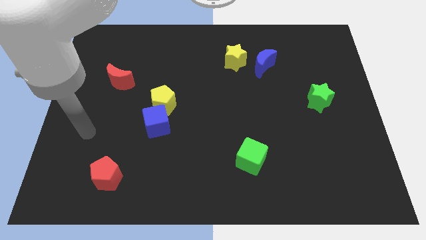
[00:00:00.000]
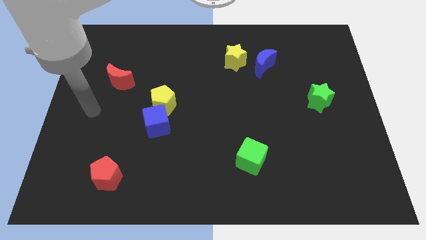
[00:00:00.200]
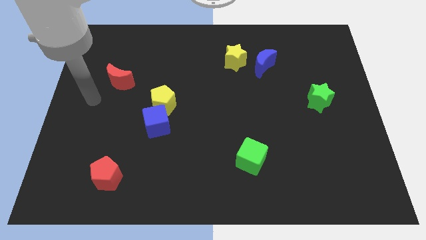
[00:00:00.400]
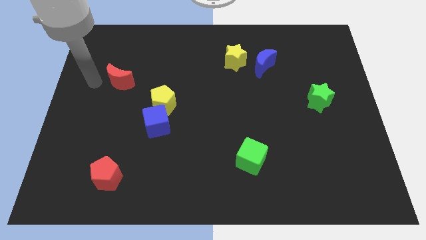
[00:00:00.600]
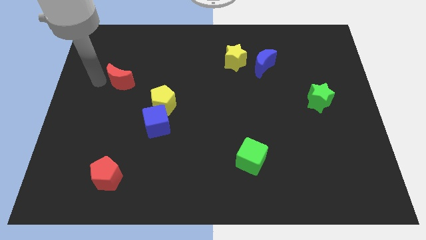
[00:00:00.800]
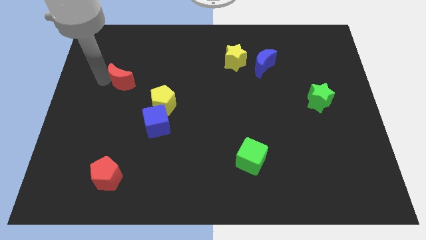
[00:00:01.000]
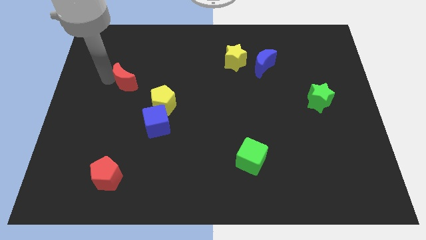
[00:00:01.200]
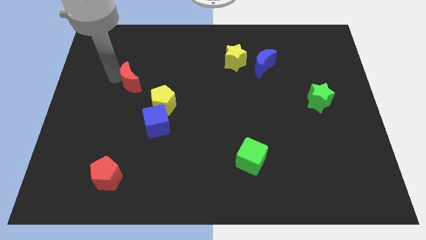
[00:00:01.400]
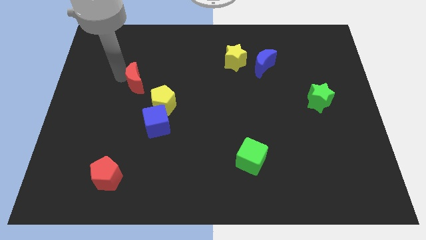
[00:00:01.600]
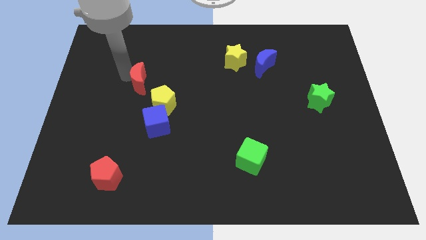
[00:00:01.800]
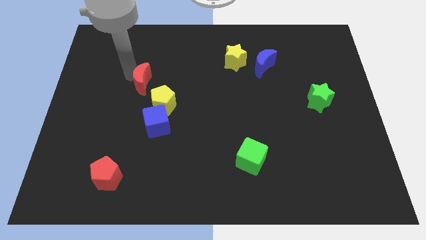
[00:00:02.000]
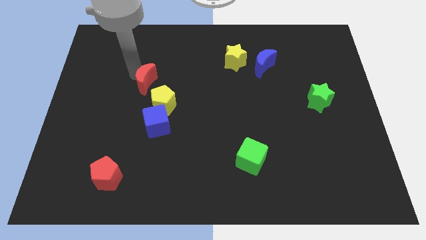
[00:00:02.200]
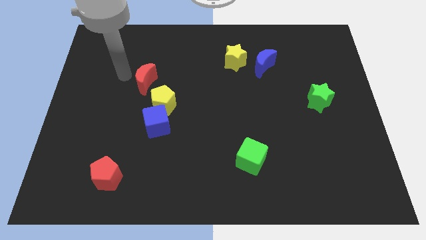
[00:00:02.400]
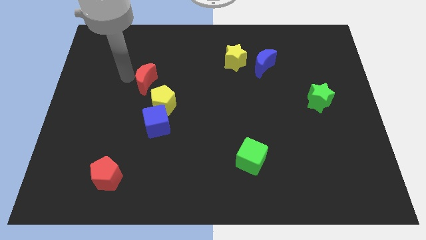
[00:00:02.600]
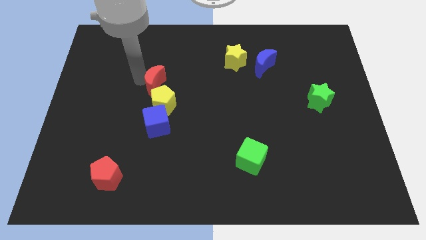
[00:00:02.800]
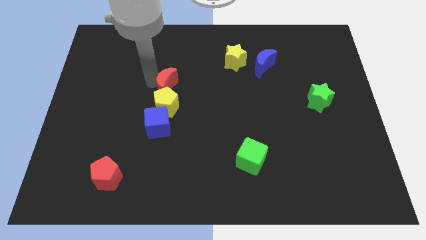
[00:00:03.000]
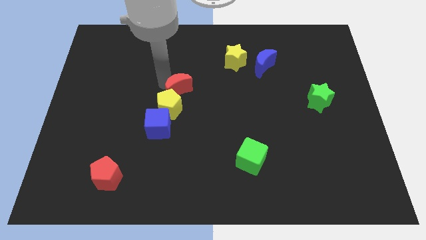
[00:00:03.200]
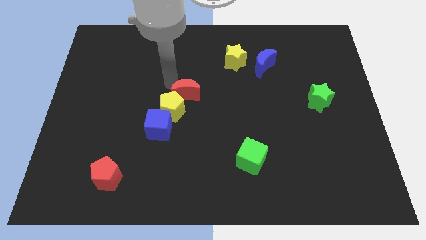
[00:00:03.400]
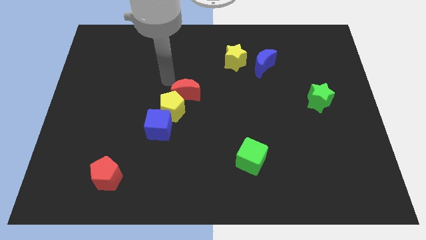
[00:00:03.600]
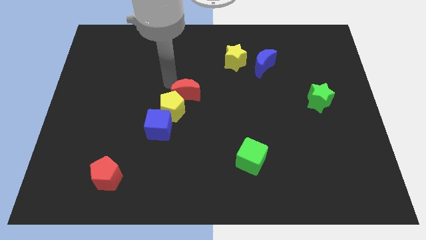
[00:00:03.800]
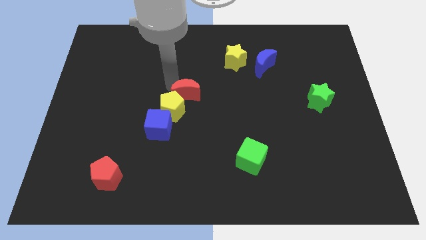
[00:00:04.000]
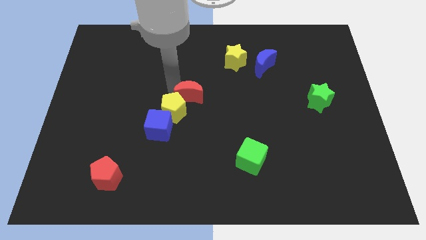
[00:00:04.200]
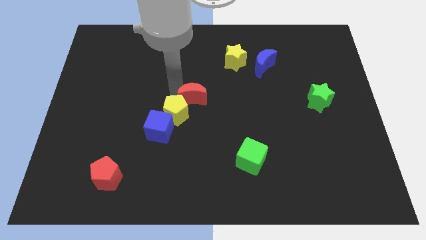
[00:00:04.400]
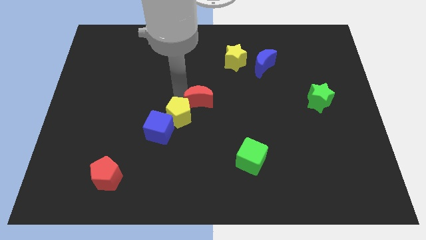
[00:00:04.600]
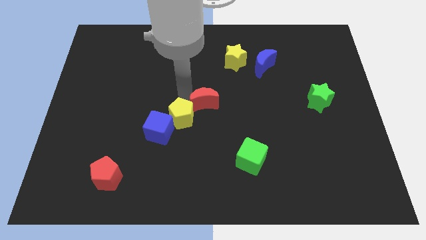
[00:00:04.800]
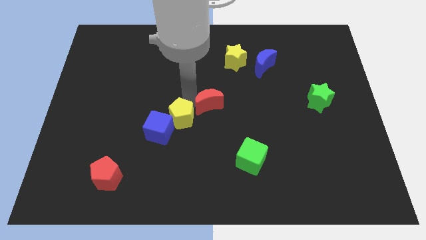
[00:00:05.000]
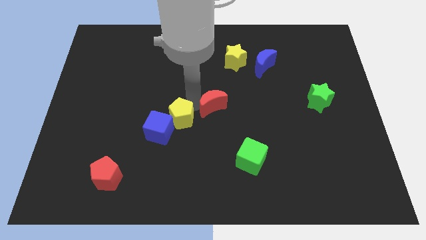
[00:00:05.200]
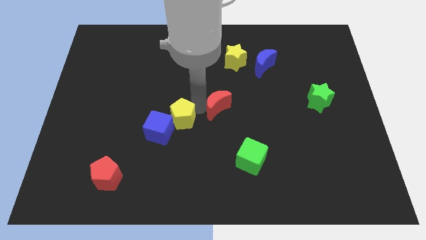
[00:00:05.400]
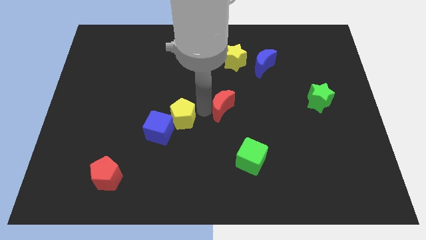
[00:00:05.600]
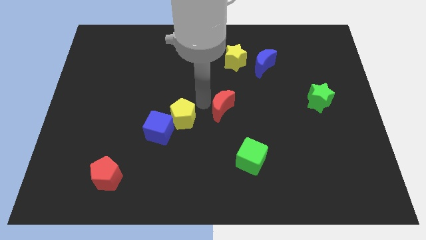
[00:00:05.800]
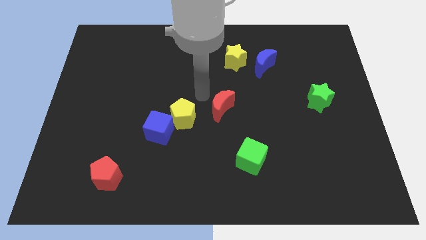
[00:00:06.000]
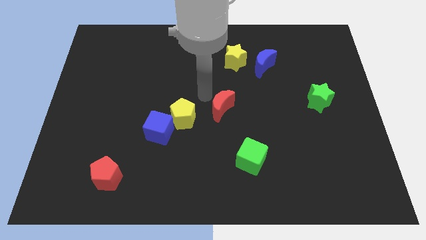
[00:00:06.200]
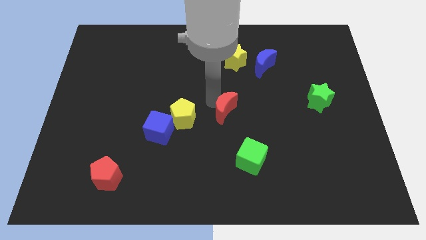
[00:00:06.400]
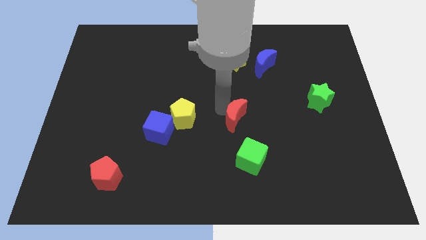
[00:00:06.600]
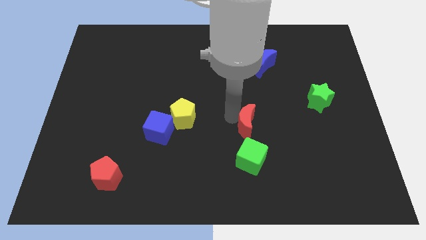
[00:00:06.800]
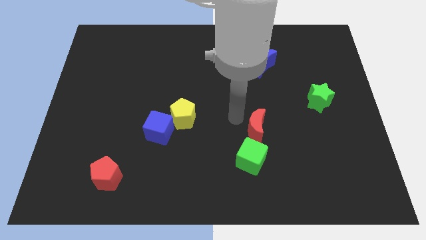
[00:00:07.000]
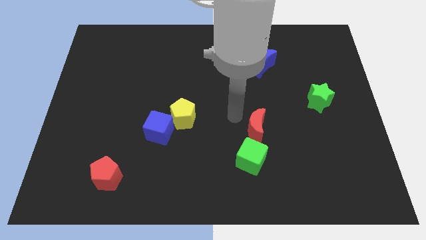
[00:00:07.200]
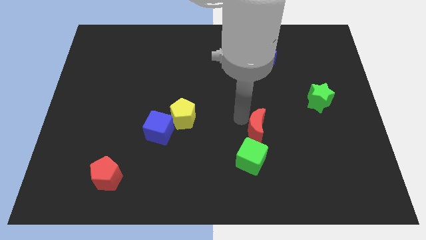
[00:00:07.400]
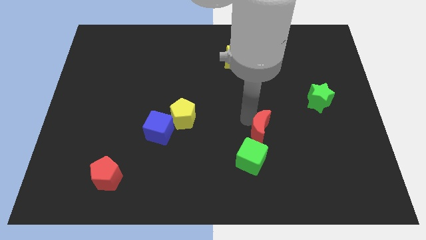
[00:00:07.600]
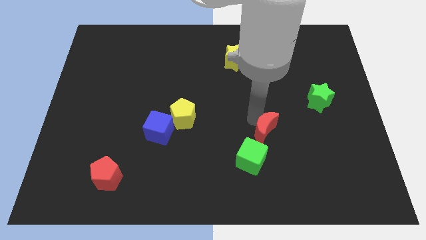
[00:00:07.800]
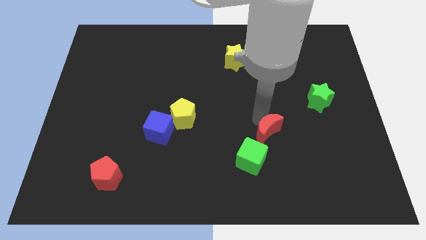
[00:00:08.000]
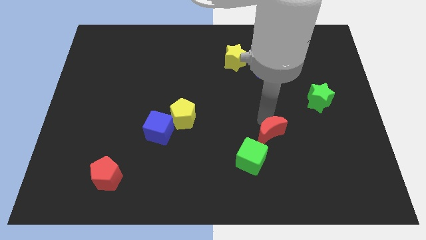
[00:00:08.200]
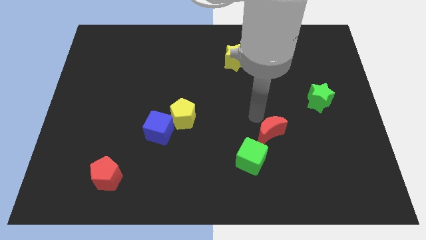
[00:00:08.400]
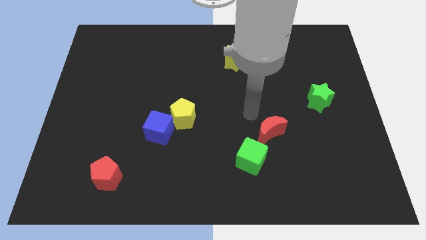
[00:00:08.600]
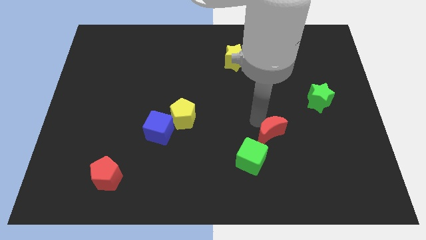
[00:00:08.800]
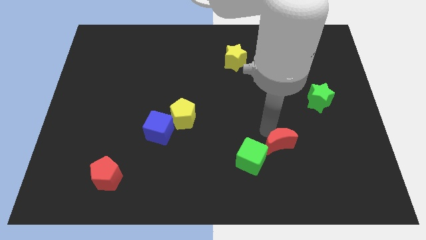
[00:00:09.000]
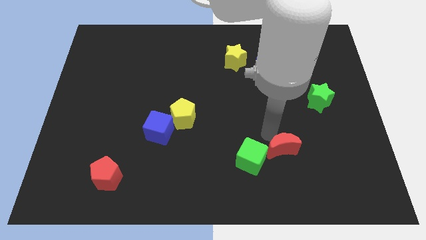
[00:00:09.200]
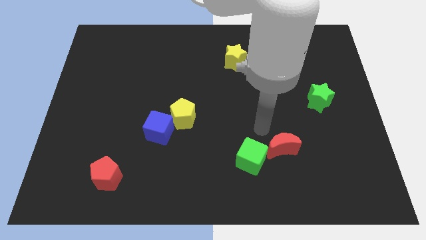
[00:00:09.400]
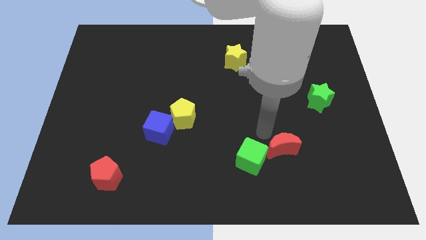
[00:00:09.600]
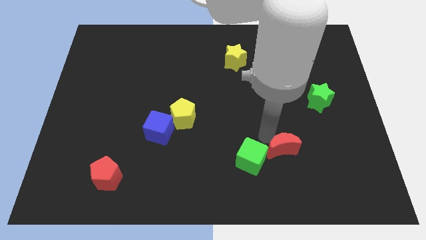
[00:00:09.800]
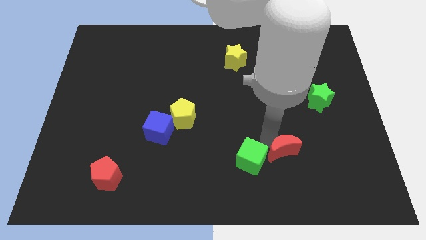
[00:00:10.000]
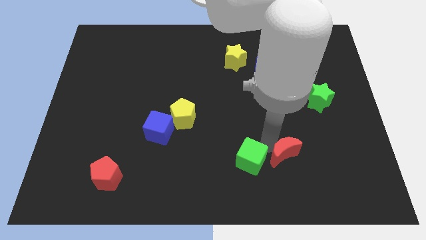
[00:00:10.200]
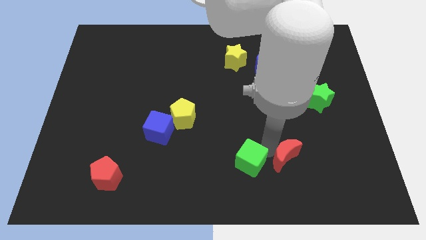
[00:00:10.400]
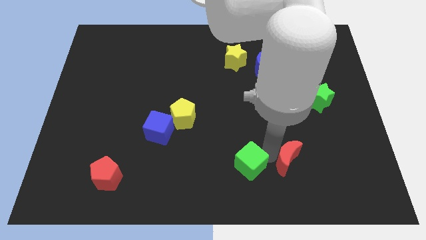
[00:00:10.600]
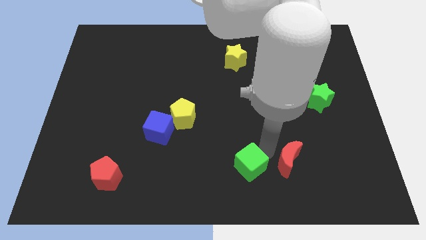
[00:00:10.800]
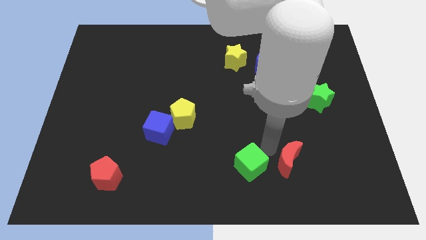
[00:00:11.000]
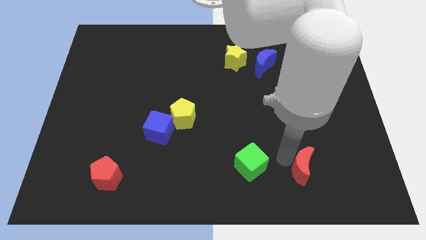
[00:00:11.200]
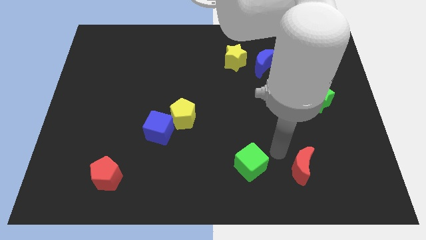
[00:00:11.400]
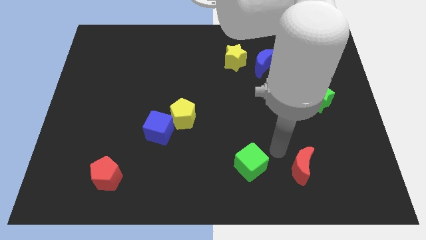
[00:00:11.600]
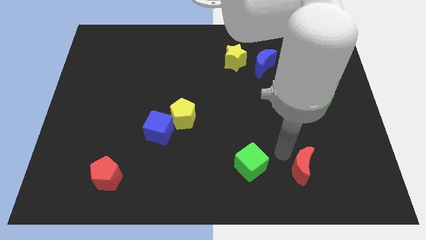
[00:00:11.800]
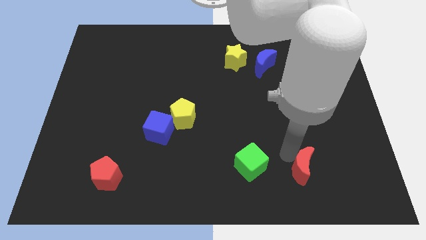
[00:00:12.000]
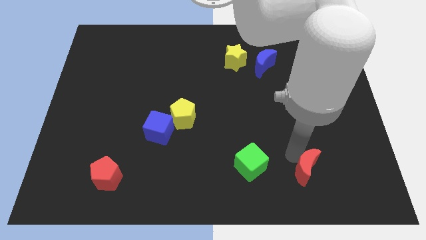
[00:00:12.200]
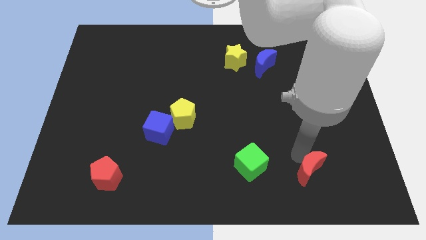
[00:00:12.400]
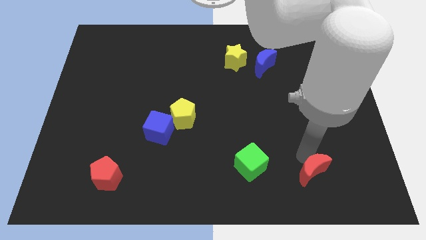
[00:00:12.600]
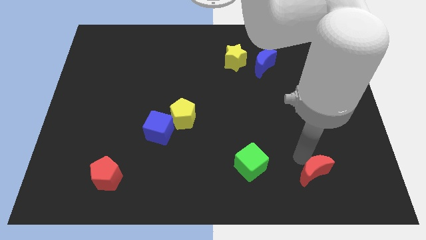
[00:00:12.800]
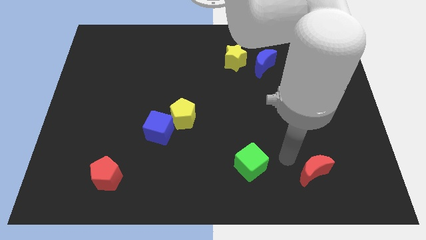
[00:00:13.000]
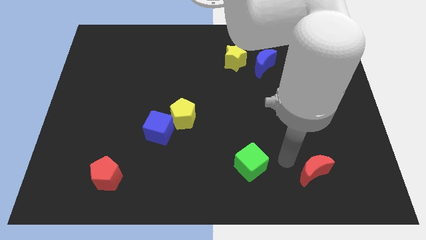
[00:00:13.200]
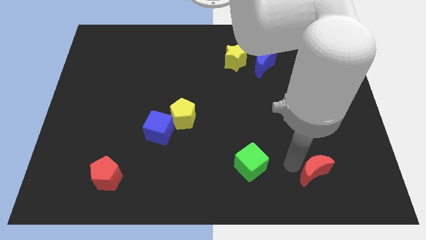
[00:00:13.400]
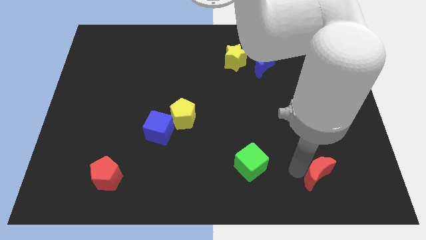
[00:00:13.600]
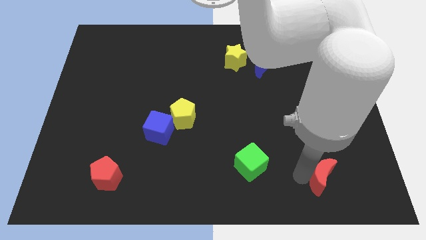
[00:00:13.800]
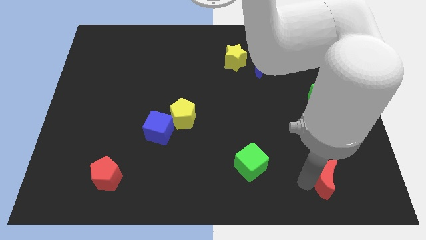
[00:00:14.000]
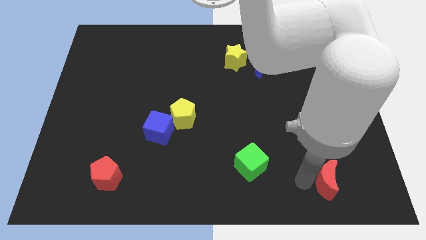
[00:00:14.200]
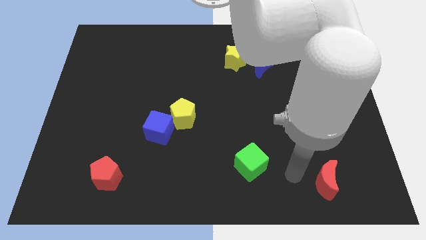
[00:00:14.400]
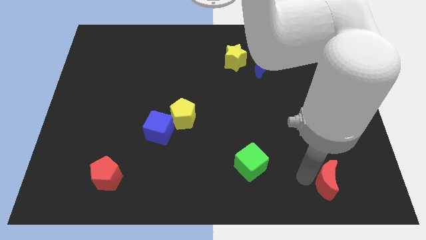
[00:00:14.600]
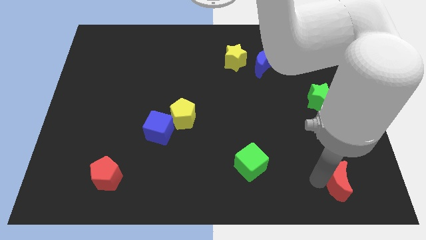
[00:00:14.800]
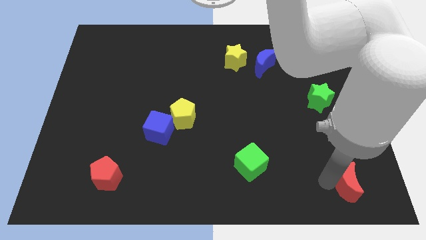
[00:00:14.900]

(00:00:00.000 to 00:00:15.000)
push the red moon to the bottom right
